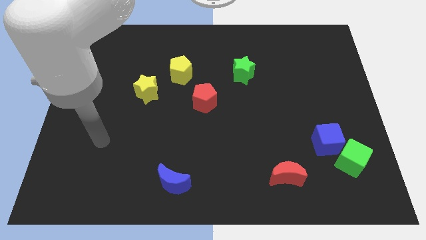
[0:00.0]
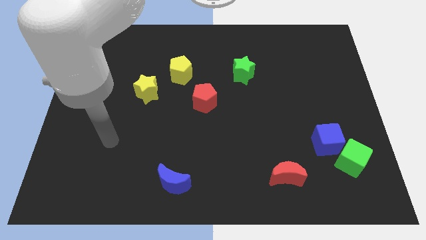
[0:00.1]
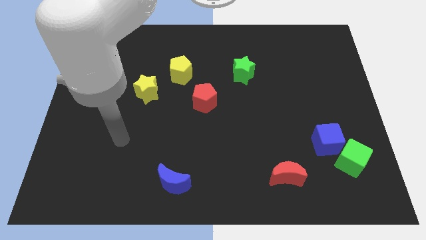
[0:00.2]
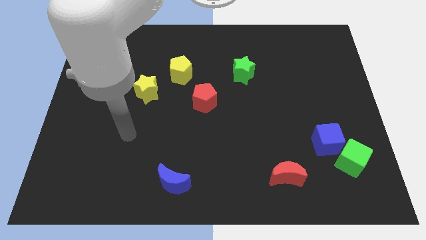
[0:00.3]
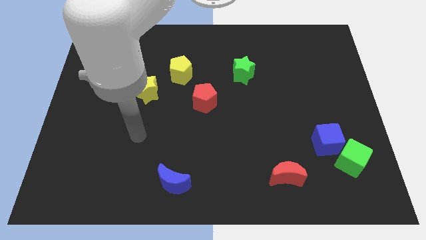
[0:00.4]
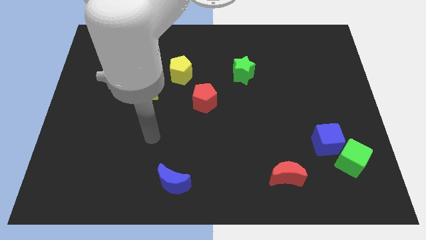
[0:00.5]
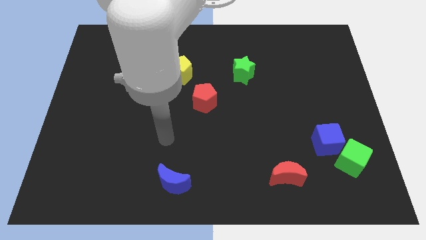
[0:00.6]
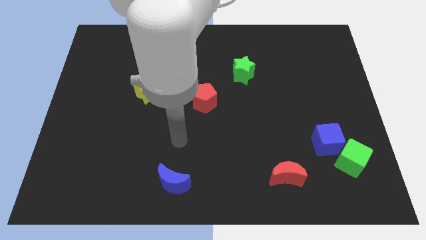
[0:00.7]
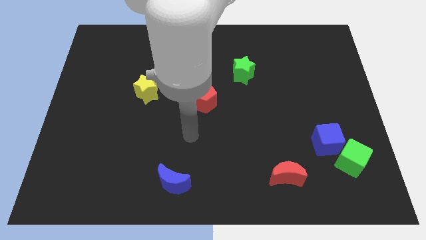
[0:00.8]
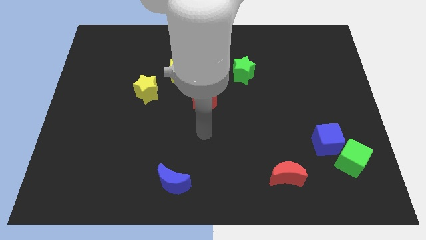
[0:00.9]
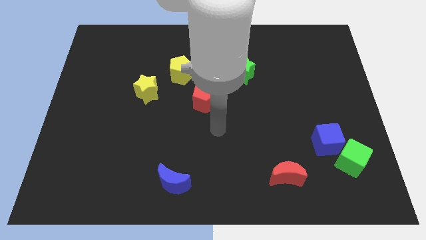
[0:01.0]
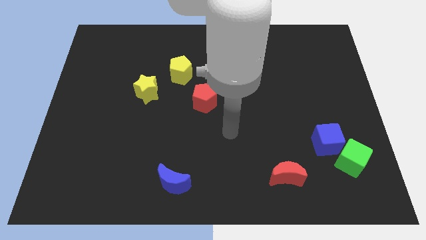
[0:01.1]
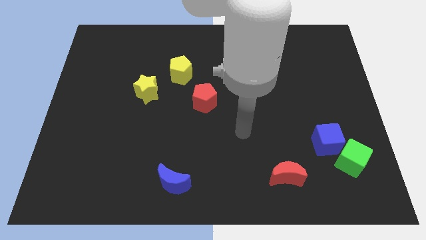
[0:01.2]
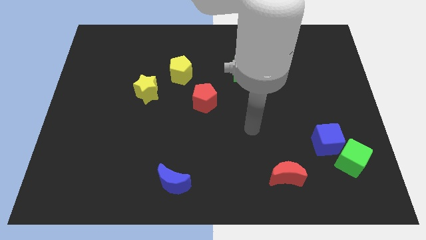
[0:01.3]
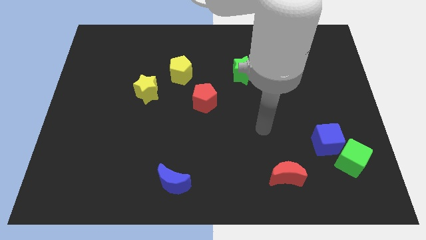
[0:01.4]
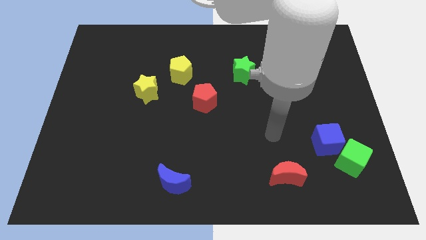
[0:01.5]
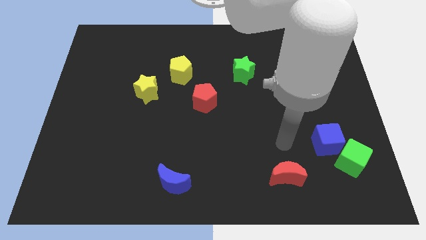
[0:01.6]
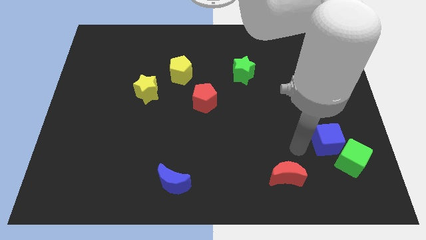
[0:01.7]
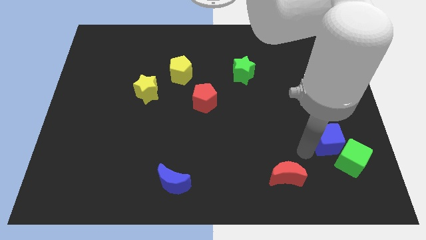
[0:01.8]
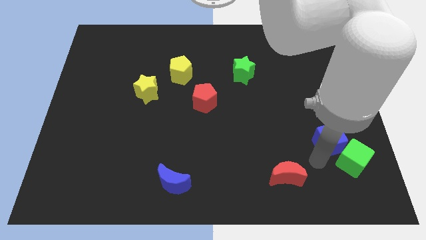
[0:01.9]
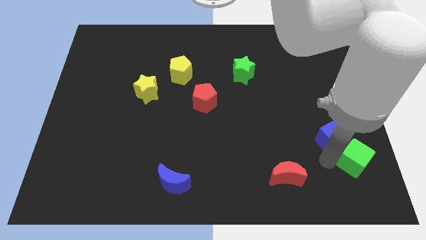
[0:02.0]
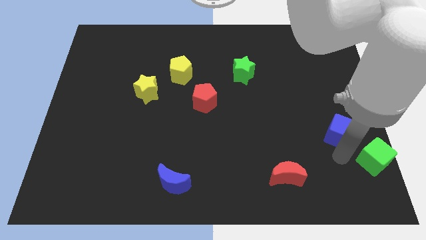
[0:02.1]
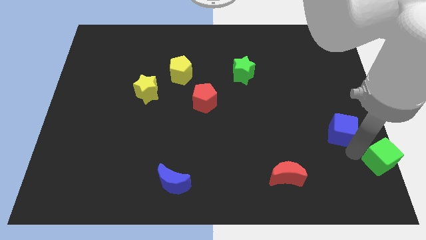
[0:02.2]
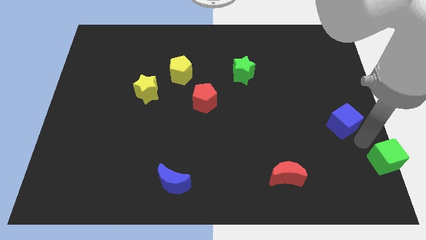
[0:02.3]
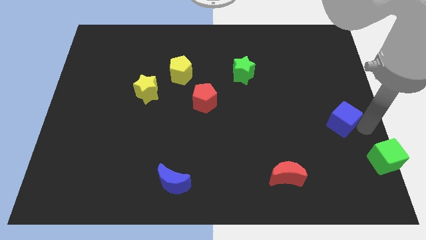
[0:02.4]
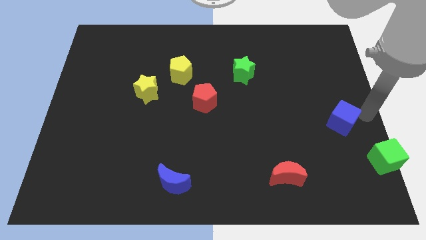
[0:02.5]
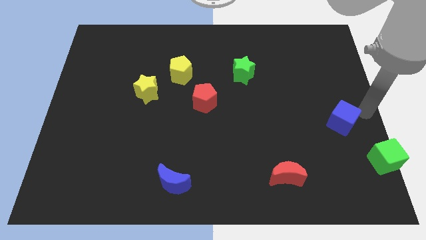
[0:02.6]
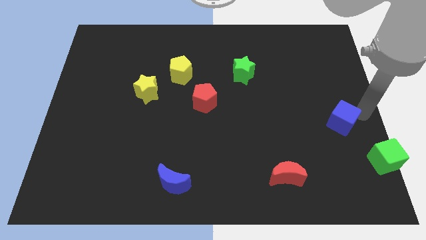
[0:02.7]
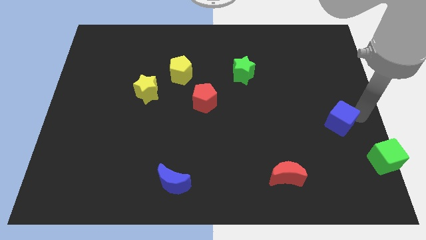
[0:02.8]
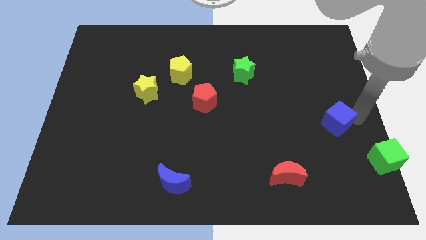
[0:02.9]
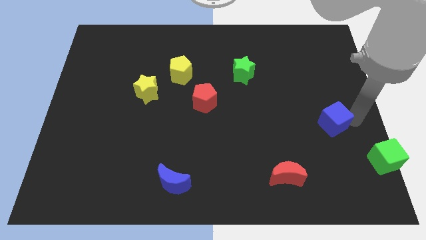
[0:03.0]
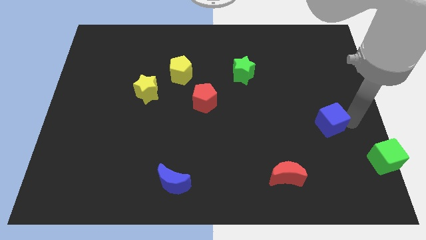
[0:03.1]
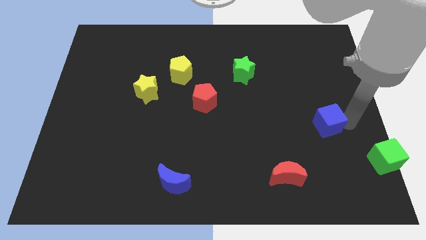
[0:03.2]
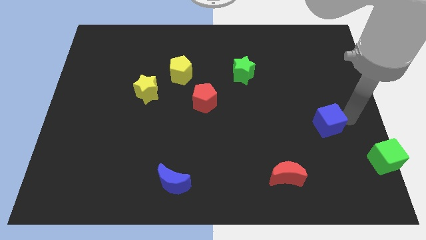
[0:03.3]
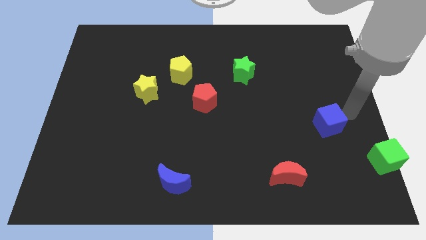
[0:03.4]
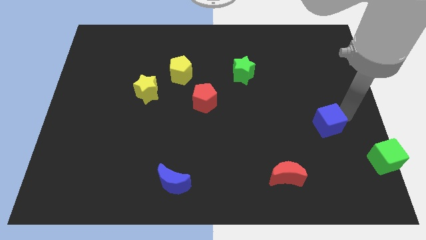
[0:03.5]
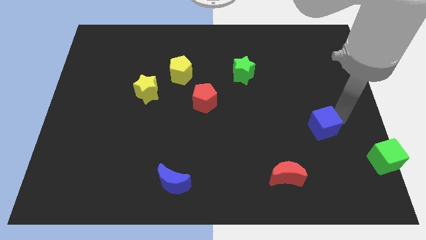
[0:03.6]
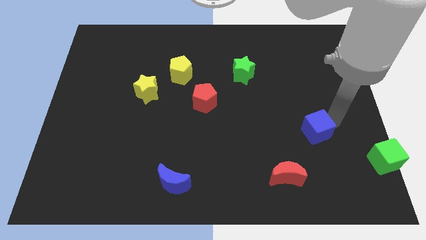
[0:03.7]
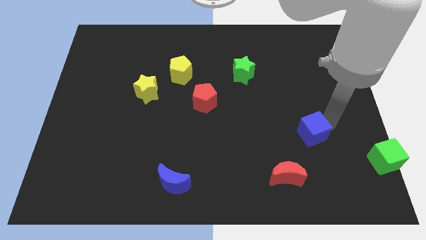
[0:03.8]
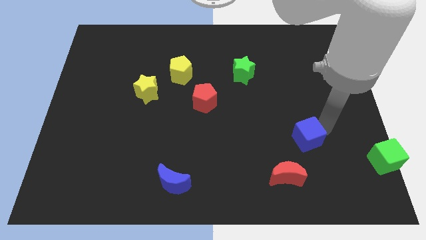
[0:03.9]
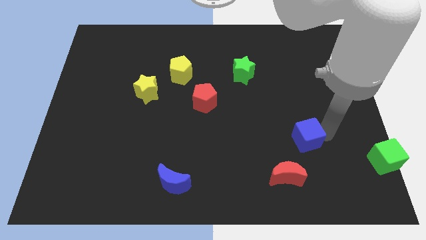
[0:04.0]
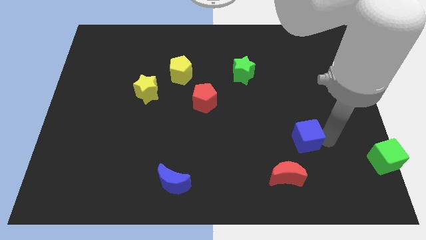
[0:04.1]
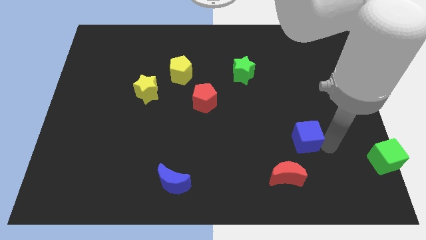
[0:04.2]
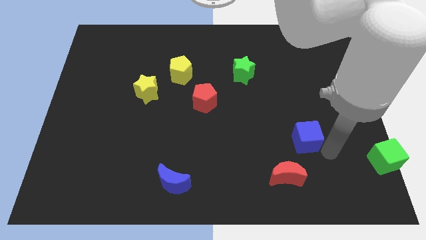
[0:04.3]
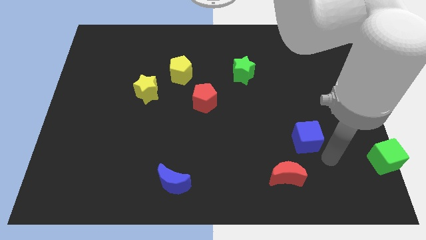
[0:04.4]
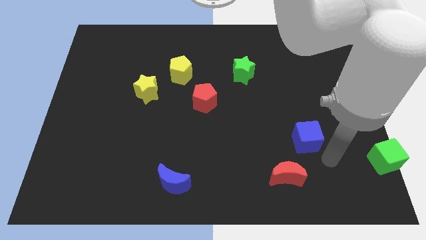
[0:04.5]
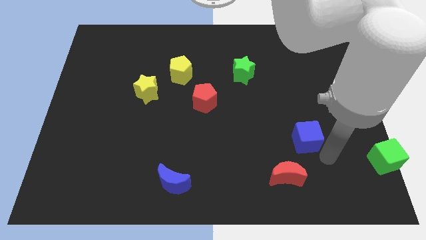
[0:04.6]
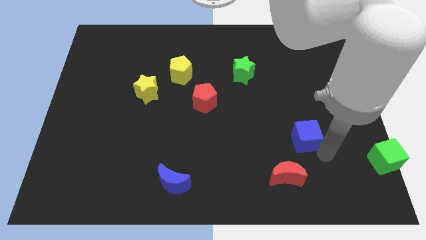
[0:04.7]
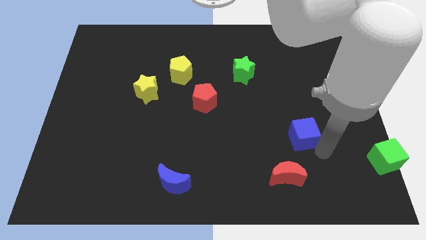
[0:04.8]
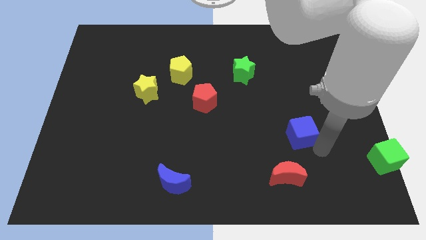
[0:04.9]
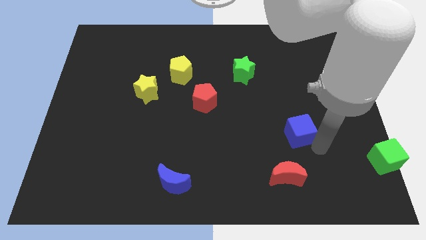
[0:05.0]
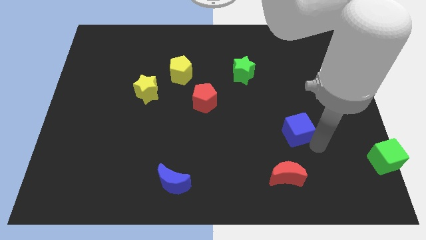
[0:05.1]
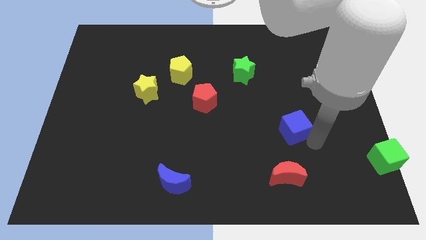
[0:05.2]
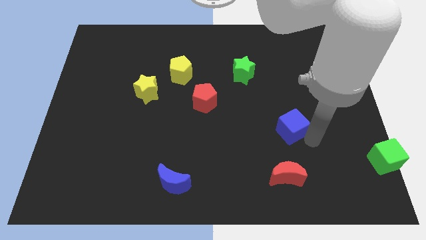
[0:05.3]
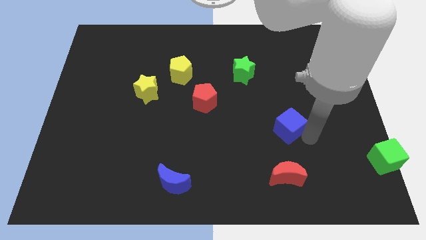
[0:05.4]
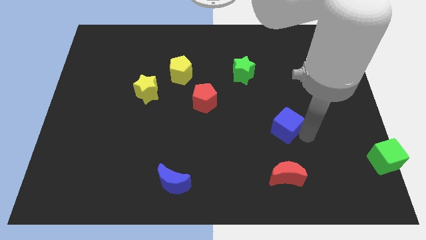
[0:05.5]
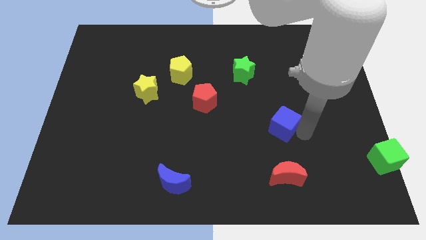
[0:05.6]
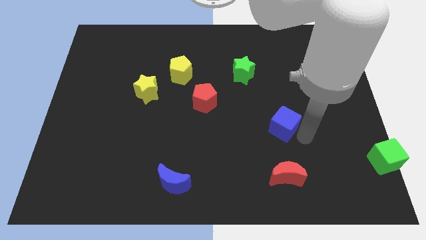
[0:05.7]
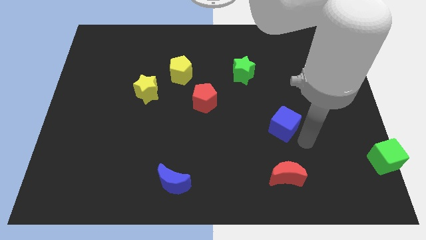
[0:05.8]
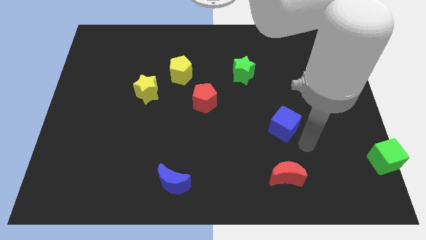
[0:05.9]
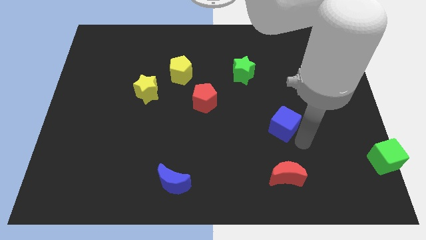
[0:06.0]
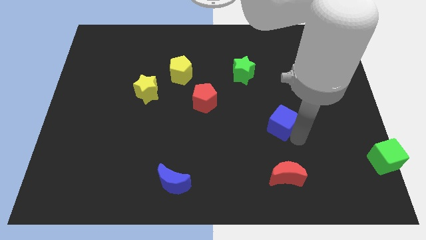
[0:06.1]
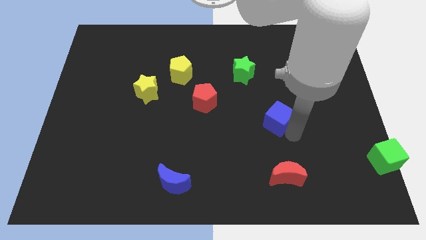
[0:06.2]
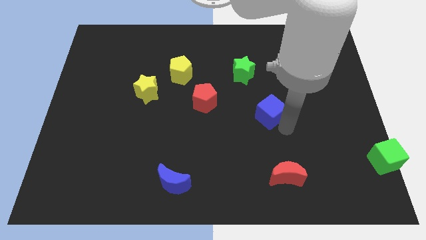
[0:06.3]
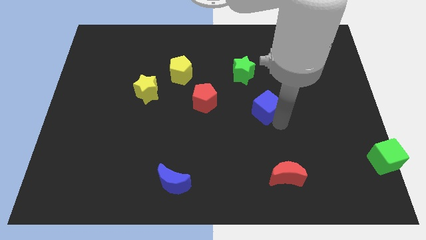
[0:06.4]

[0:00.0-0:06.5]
put the blue cube right of the red pentagon

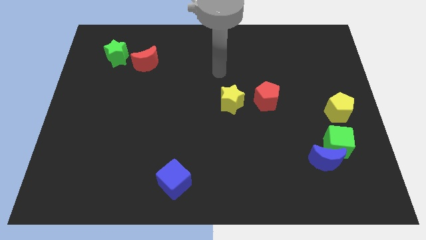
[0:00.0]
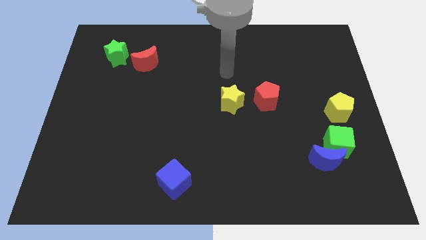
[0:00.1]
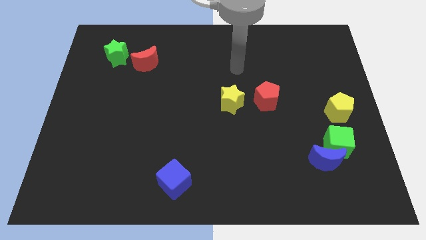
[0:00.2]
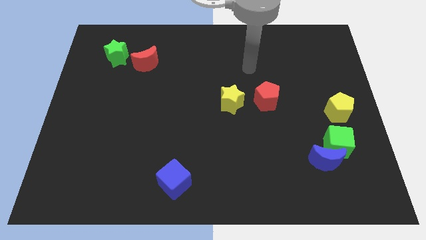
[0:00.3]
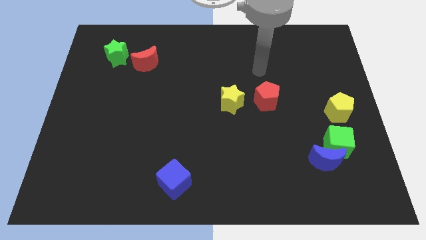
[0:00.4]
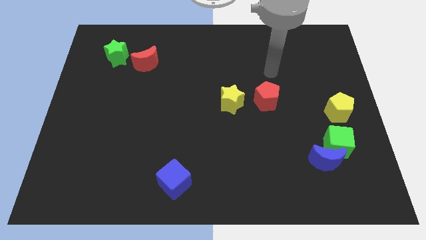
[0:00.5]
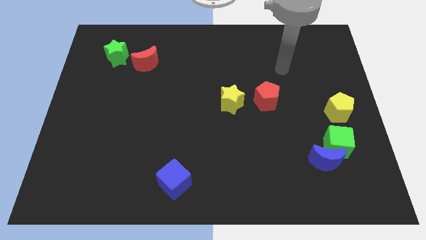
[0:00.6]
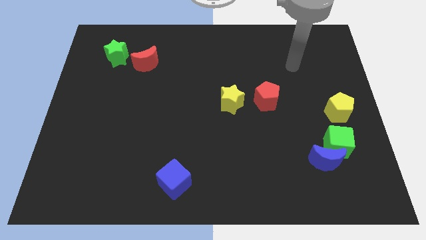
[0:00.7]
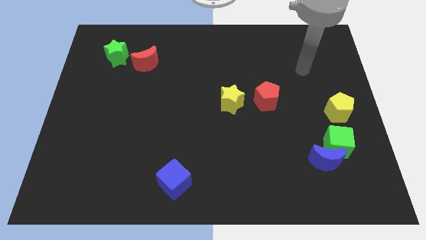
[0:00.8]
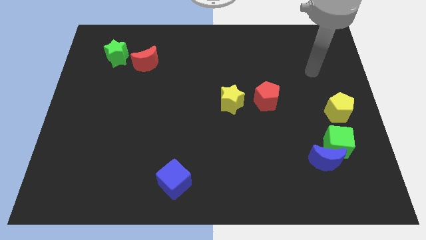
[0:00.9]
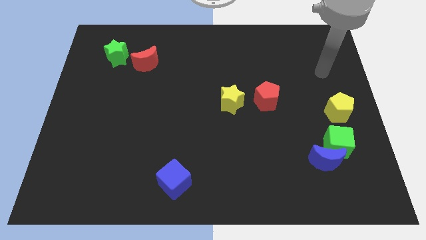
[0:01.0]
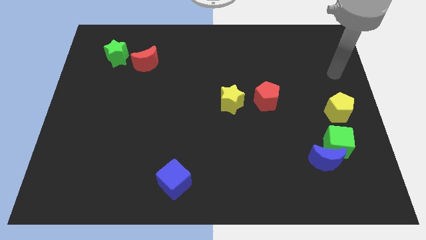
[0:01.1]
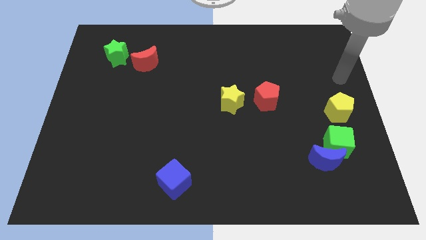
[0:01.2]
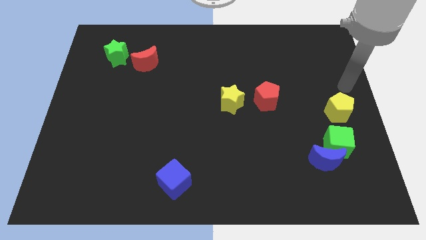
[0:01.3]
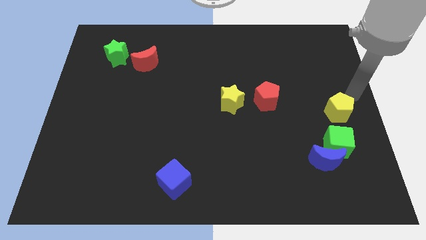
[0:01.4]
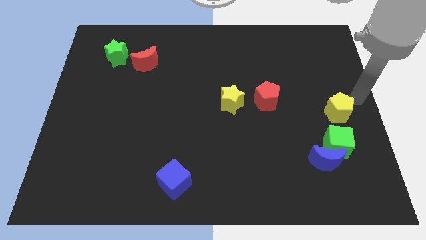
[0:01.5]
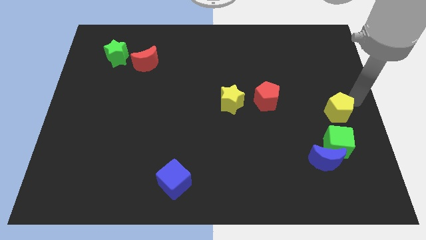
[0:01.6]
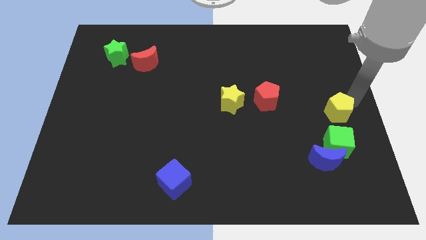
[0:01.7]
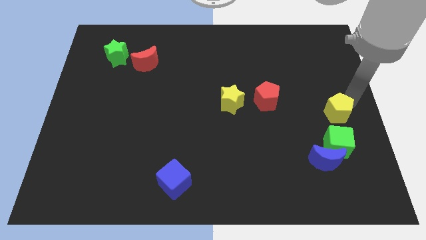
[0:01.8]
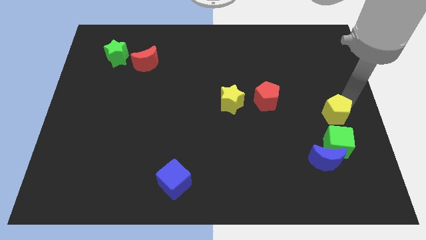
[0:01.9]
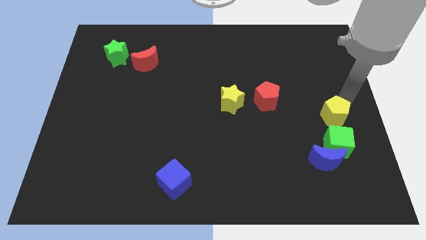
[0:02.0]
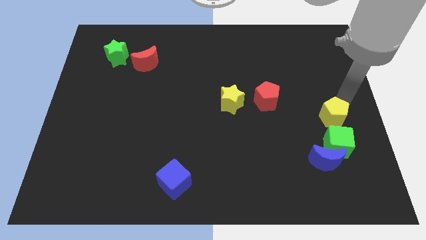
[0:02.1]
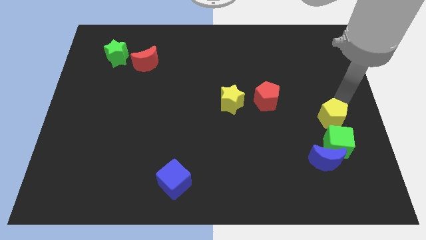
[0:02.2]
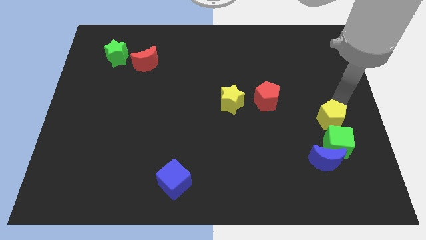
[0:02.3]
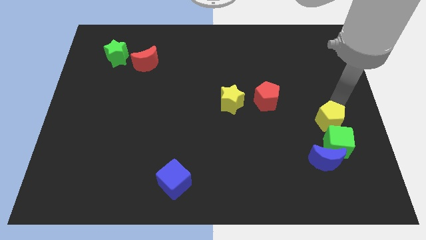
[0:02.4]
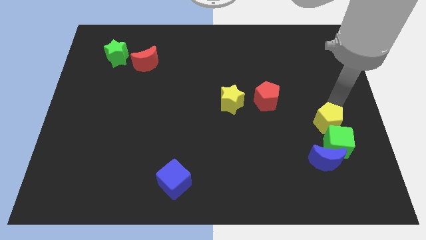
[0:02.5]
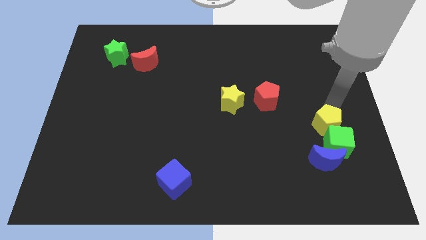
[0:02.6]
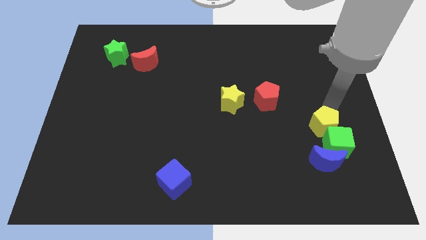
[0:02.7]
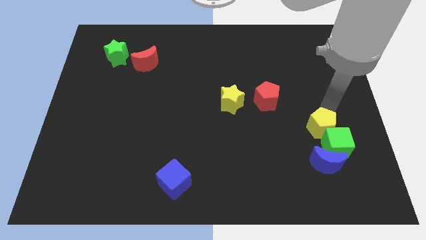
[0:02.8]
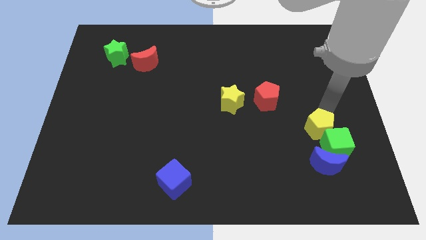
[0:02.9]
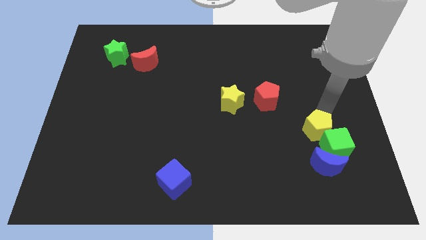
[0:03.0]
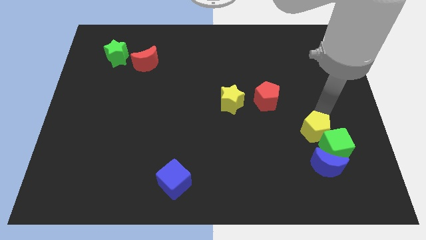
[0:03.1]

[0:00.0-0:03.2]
put the yellow pentagon just left of the green cube
